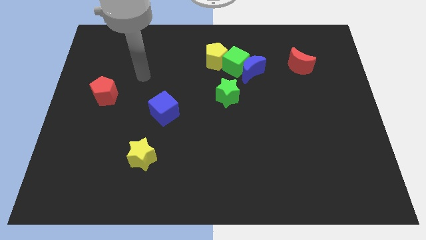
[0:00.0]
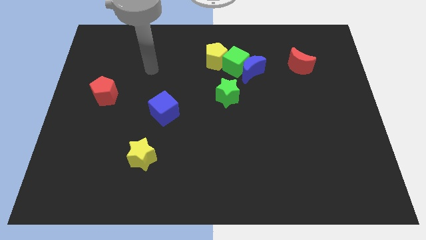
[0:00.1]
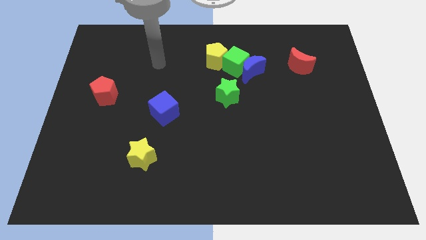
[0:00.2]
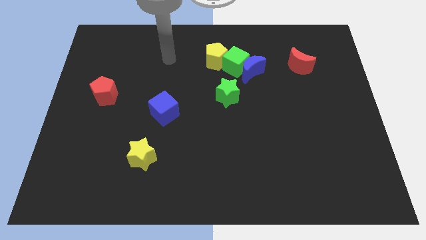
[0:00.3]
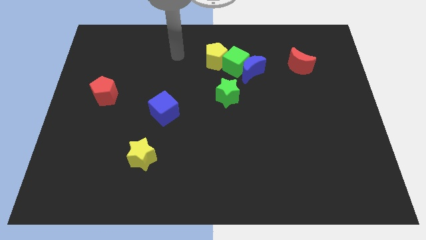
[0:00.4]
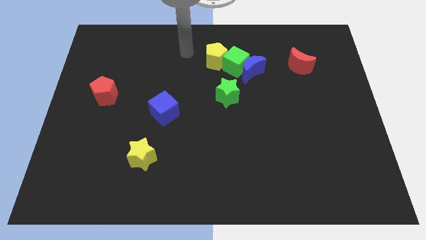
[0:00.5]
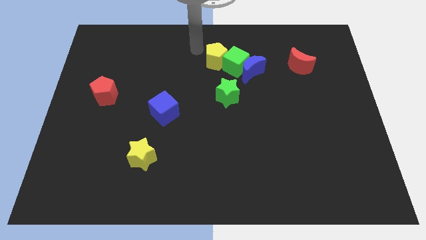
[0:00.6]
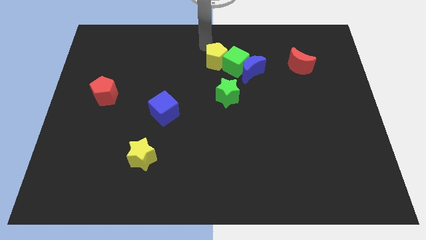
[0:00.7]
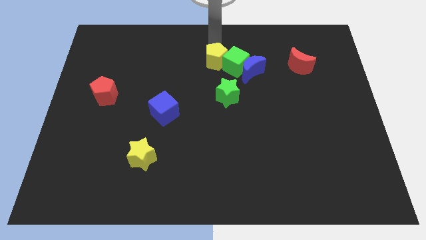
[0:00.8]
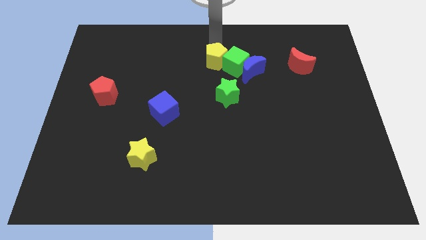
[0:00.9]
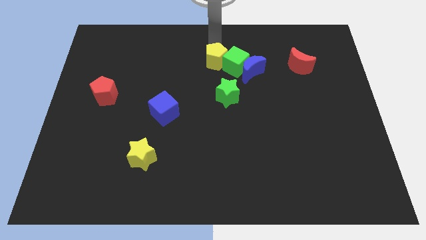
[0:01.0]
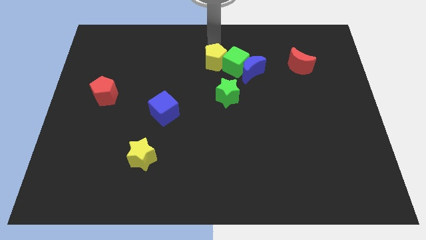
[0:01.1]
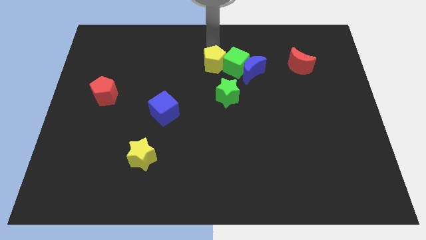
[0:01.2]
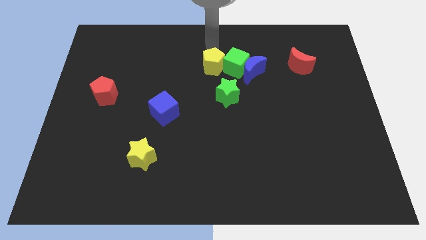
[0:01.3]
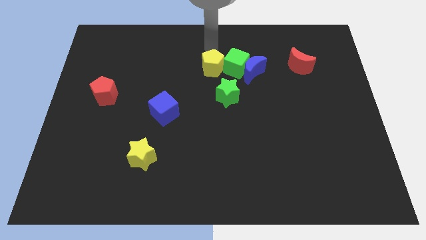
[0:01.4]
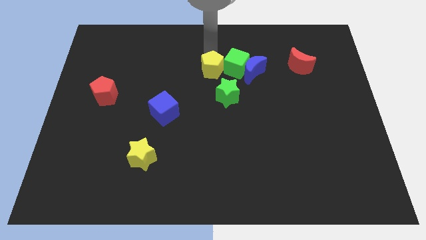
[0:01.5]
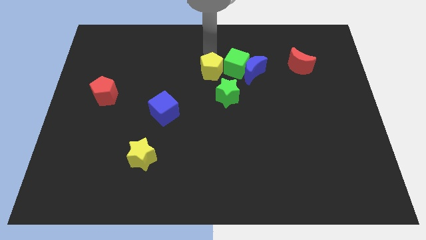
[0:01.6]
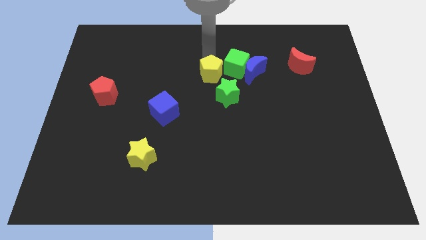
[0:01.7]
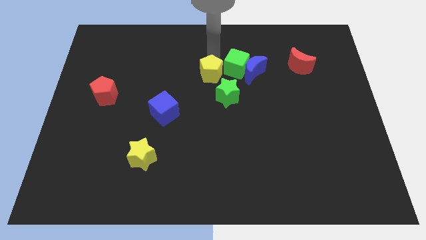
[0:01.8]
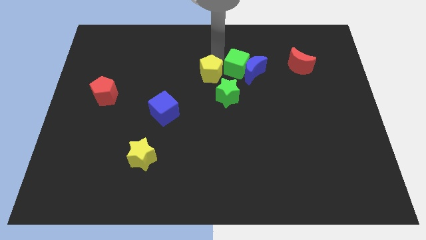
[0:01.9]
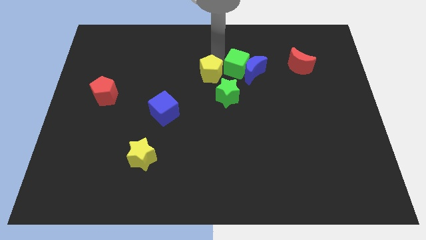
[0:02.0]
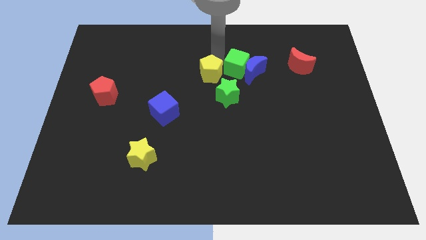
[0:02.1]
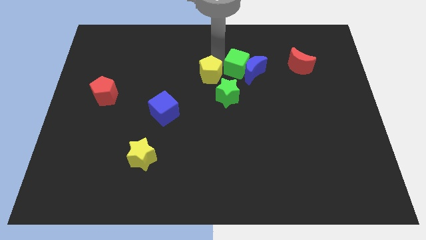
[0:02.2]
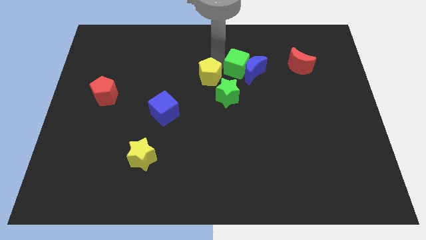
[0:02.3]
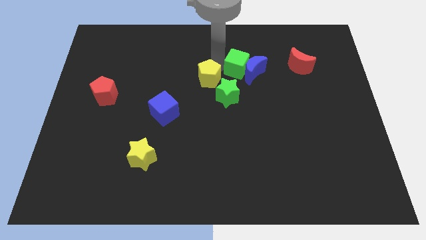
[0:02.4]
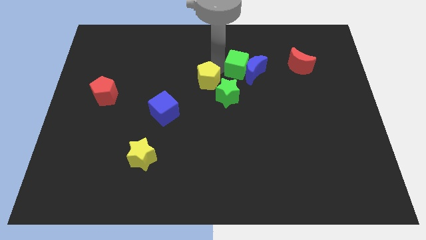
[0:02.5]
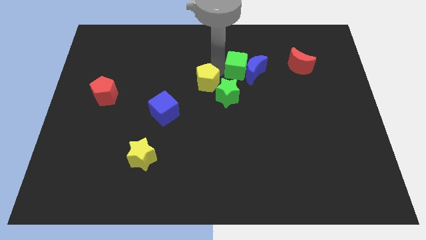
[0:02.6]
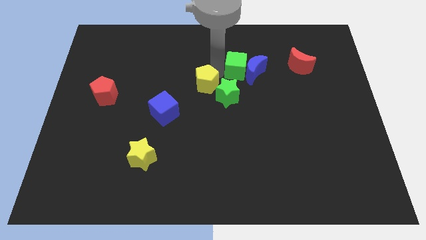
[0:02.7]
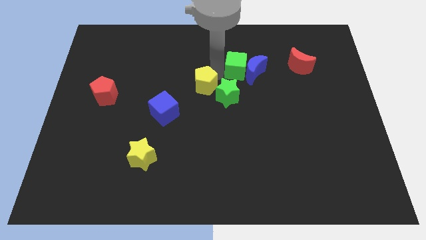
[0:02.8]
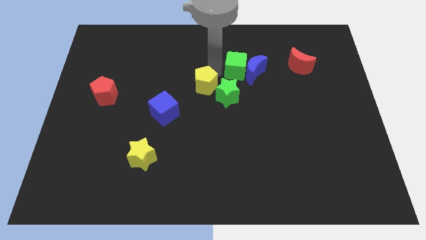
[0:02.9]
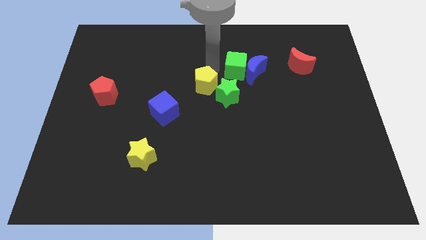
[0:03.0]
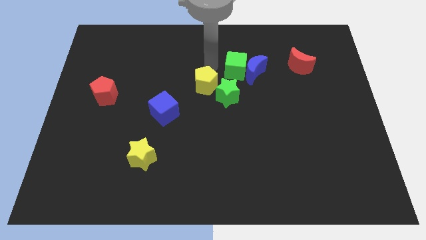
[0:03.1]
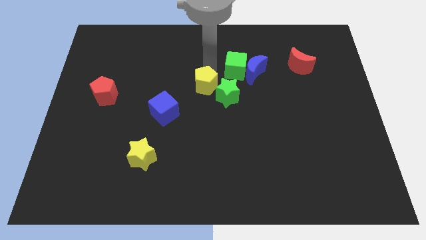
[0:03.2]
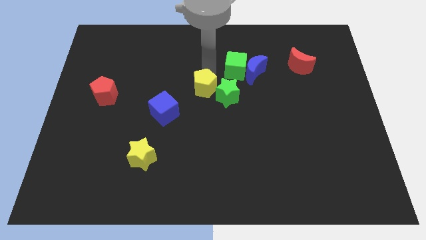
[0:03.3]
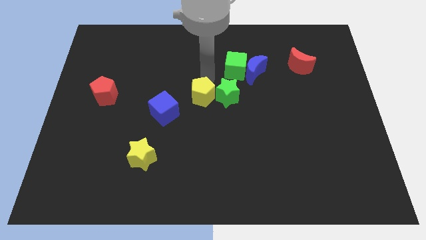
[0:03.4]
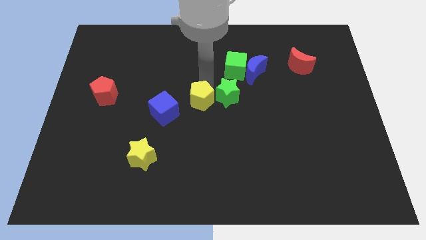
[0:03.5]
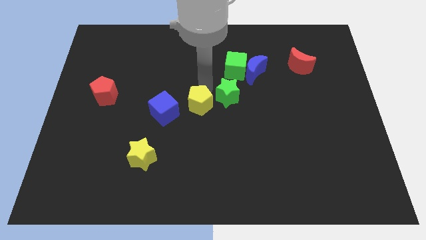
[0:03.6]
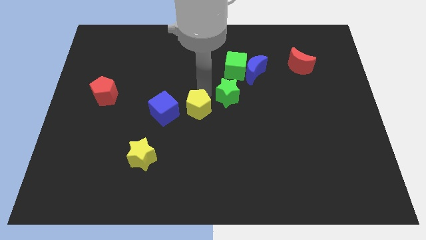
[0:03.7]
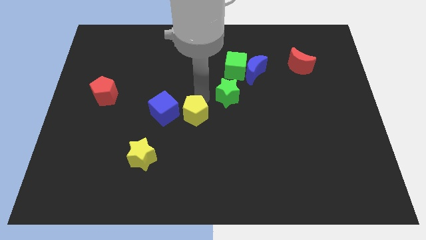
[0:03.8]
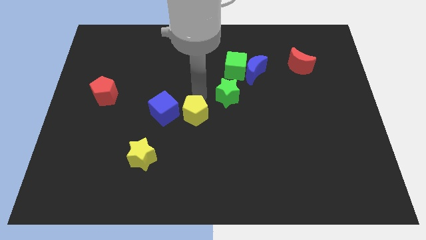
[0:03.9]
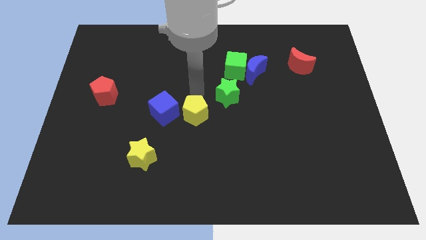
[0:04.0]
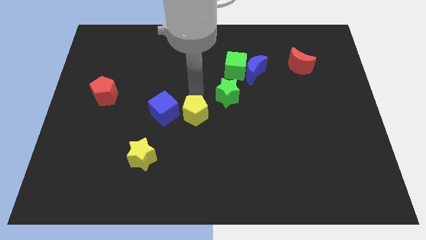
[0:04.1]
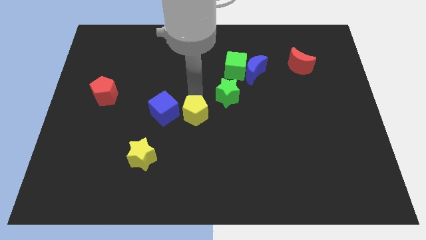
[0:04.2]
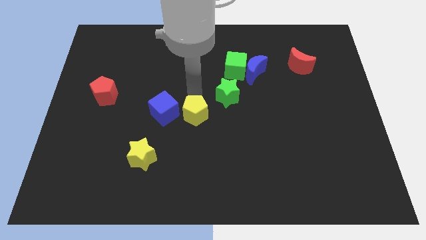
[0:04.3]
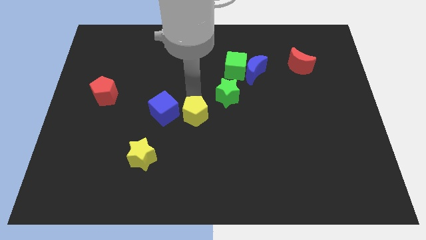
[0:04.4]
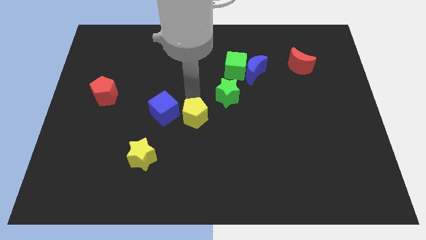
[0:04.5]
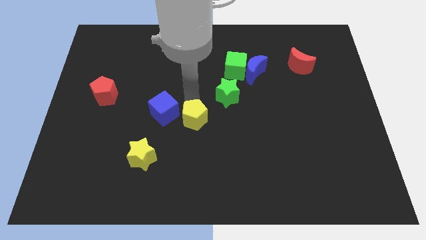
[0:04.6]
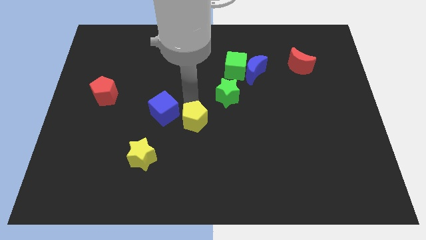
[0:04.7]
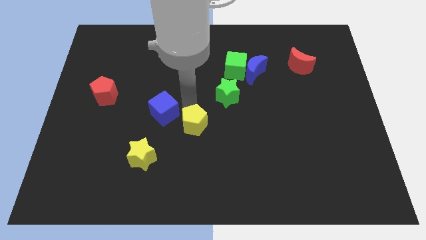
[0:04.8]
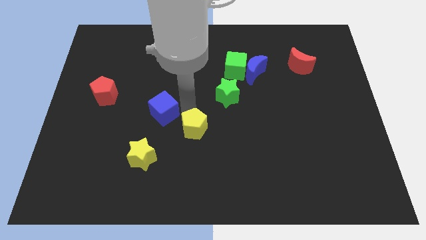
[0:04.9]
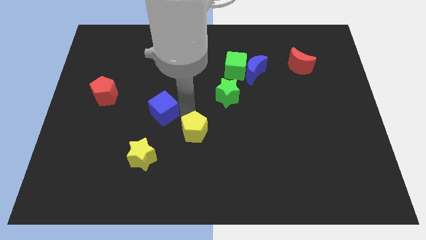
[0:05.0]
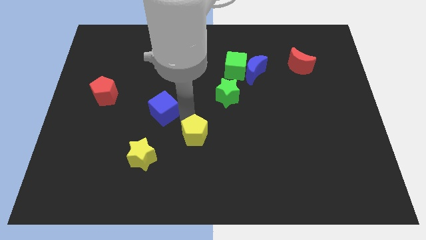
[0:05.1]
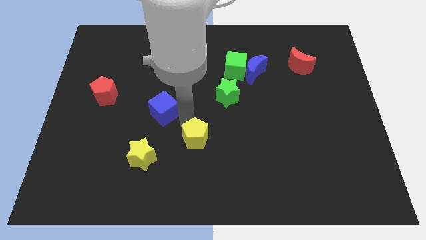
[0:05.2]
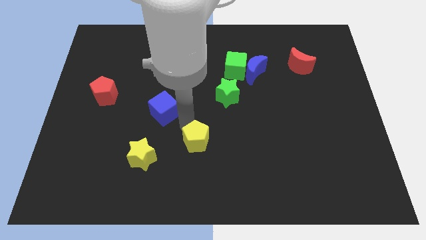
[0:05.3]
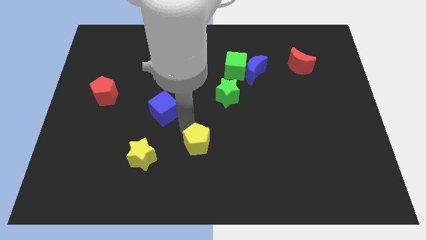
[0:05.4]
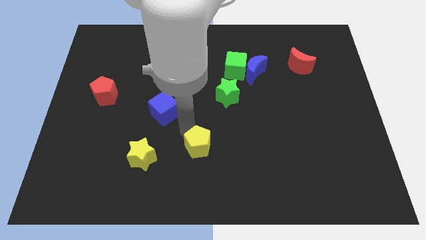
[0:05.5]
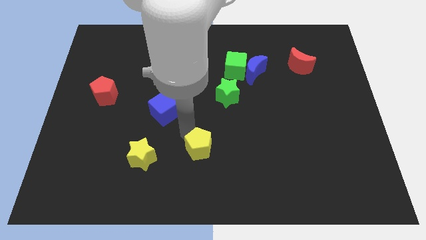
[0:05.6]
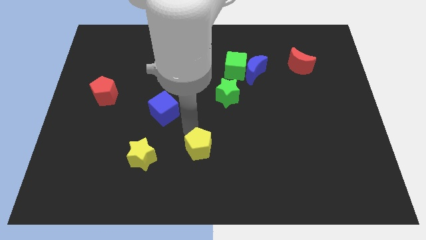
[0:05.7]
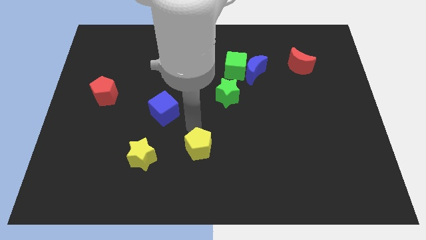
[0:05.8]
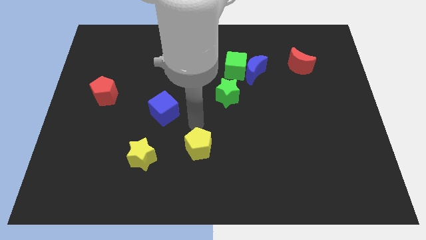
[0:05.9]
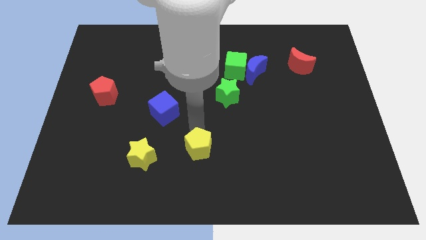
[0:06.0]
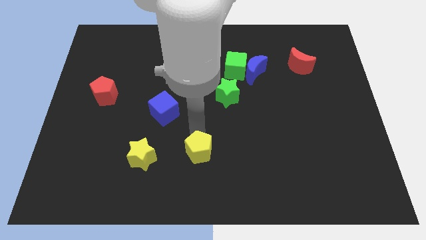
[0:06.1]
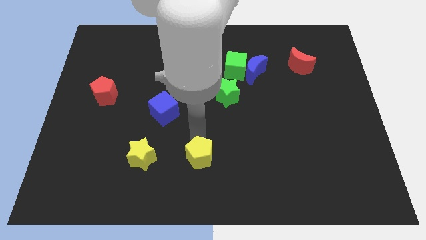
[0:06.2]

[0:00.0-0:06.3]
push the yellow pentagon to the bottom side

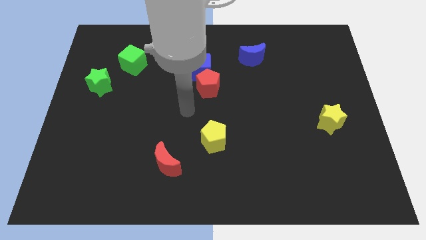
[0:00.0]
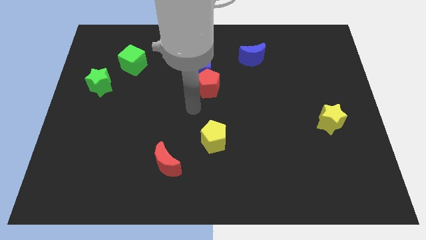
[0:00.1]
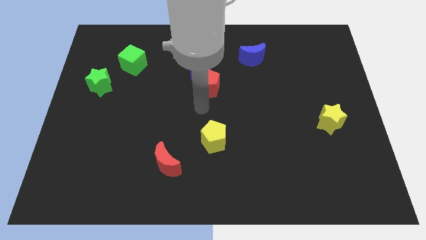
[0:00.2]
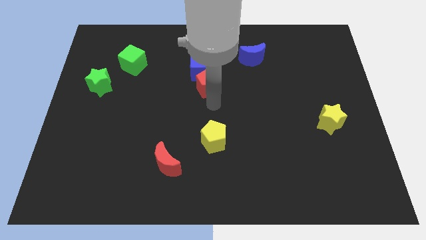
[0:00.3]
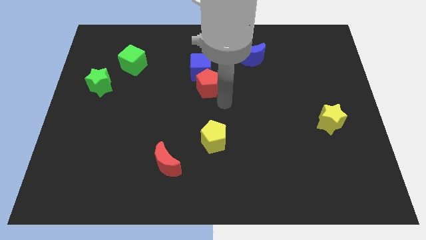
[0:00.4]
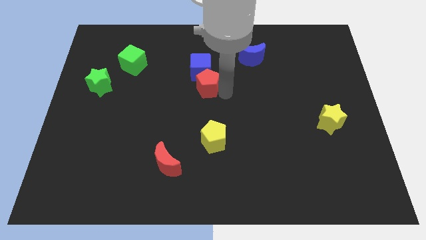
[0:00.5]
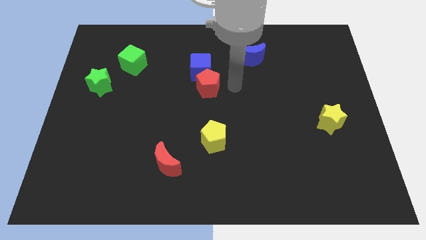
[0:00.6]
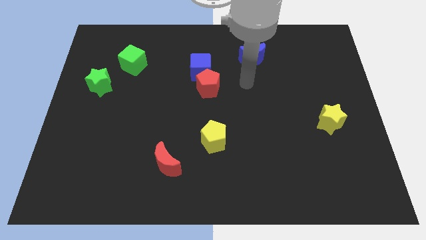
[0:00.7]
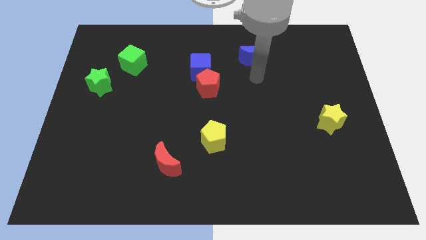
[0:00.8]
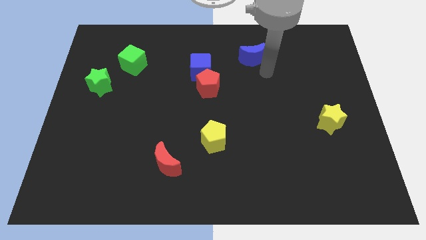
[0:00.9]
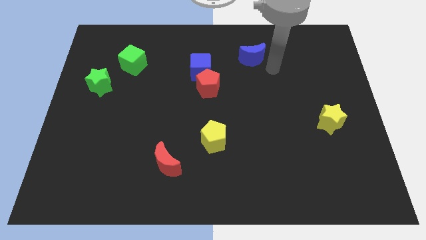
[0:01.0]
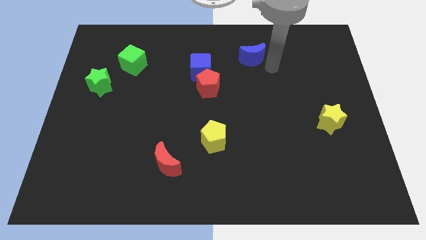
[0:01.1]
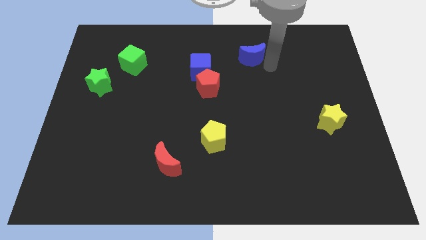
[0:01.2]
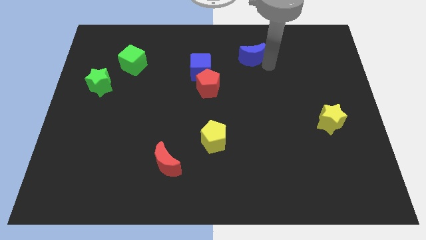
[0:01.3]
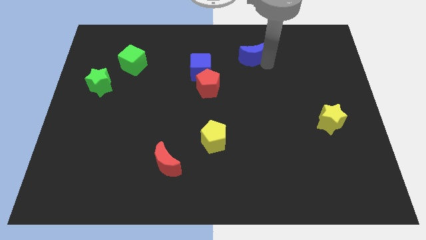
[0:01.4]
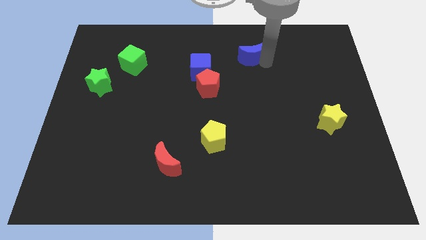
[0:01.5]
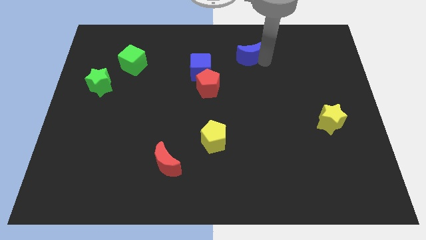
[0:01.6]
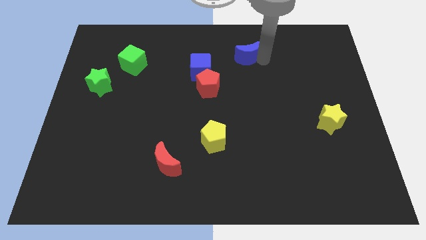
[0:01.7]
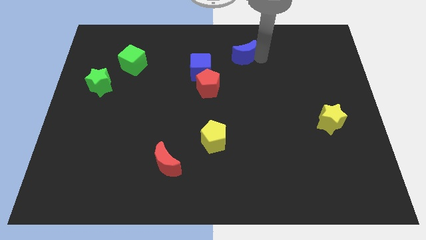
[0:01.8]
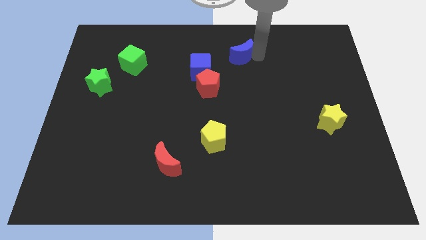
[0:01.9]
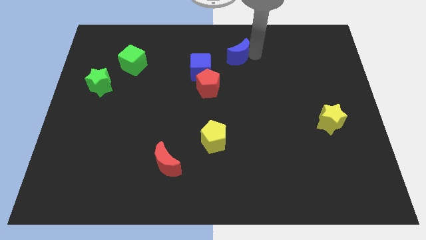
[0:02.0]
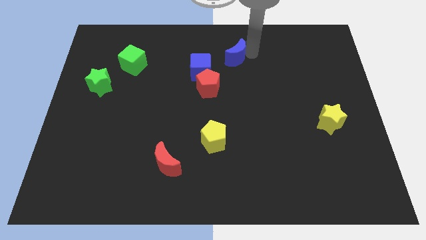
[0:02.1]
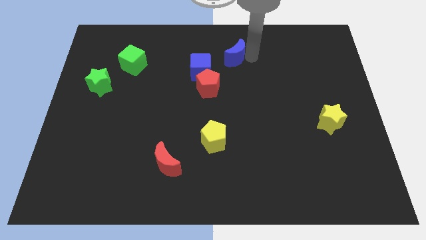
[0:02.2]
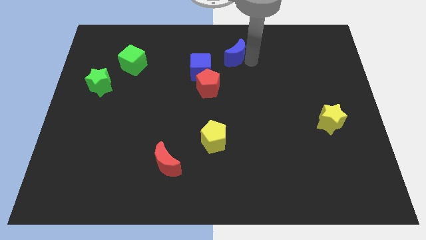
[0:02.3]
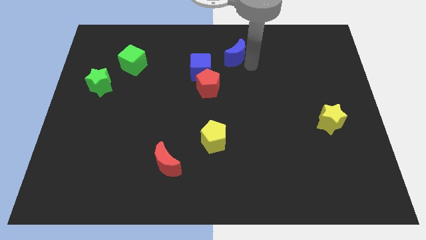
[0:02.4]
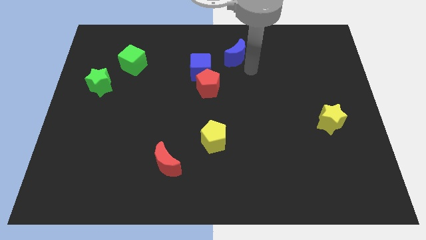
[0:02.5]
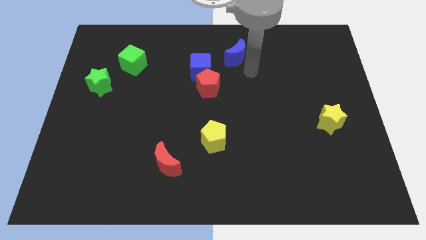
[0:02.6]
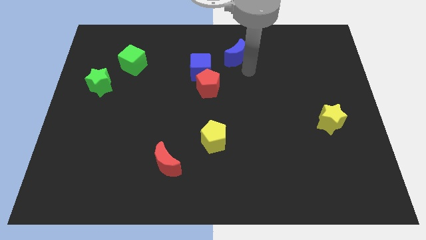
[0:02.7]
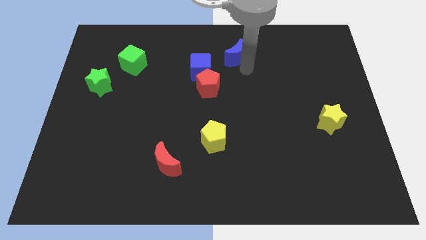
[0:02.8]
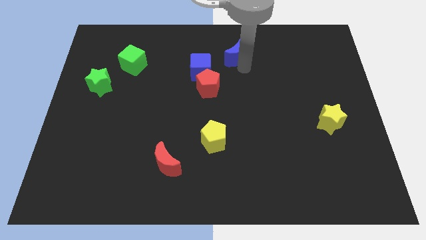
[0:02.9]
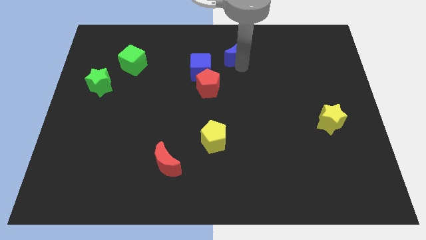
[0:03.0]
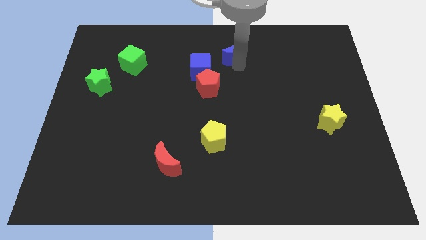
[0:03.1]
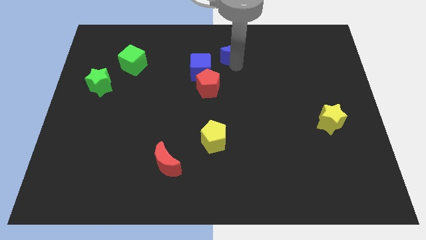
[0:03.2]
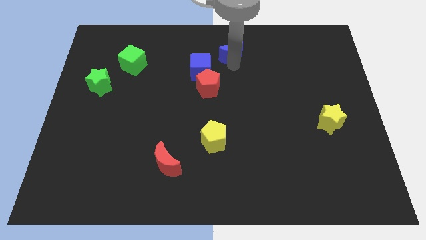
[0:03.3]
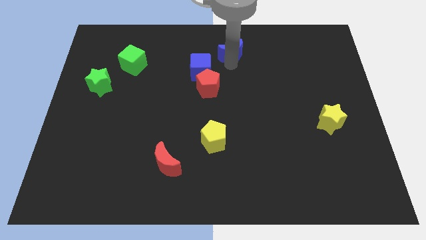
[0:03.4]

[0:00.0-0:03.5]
slide the blue moon to the top side
